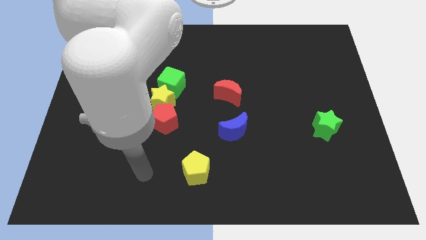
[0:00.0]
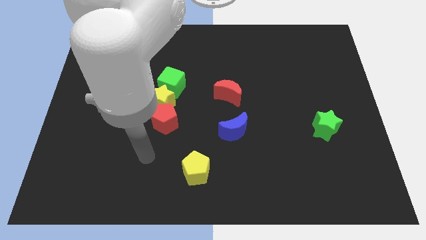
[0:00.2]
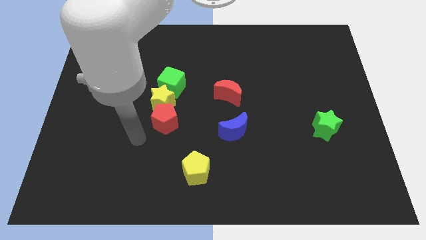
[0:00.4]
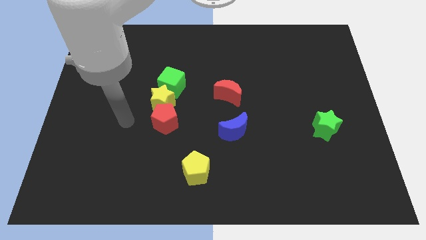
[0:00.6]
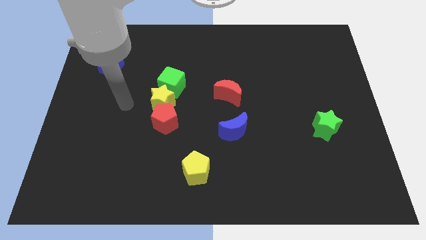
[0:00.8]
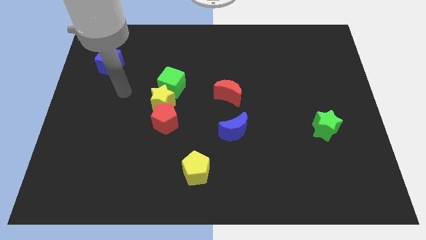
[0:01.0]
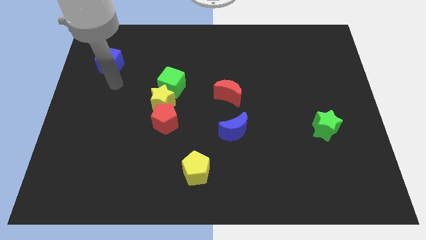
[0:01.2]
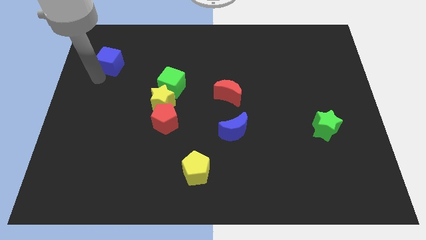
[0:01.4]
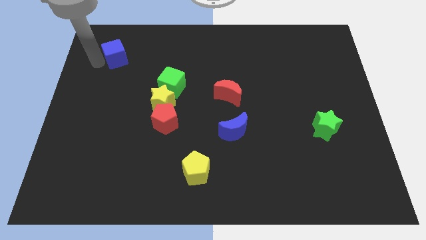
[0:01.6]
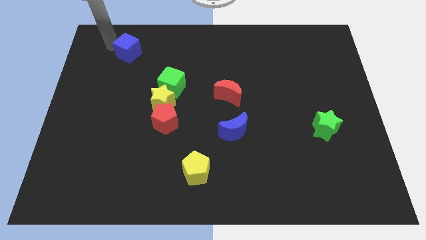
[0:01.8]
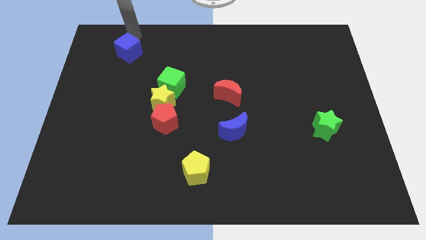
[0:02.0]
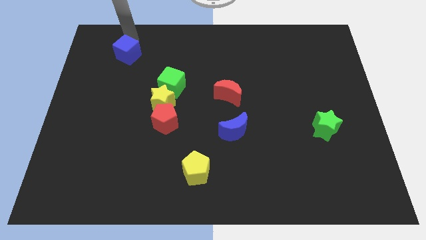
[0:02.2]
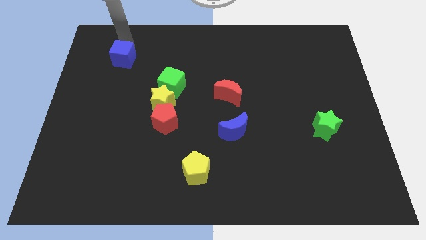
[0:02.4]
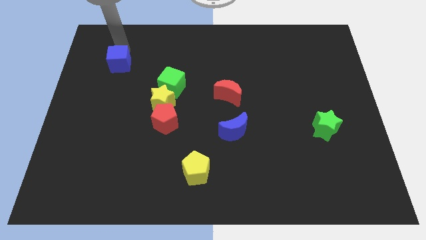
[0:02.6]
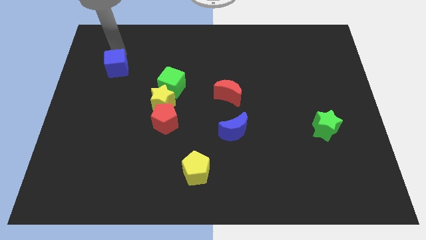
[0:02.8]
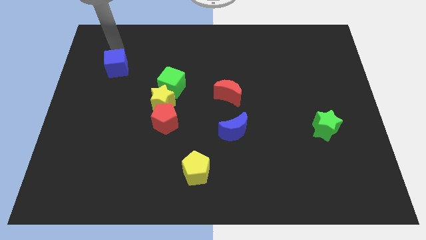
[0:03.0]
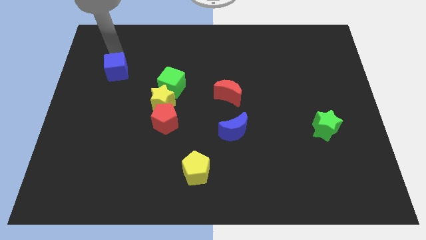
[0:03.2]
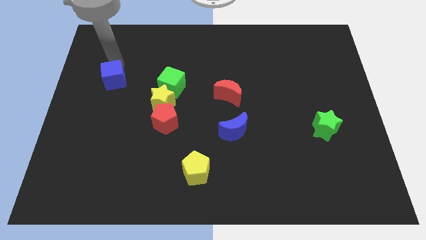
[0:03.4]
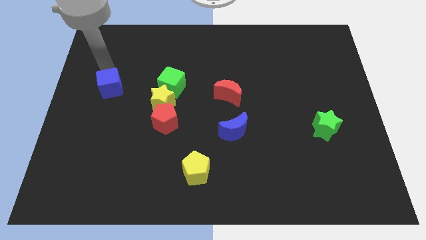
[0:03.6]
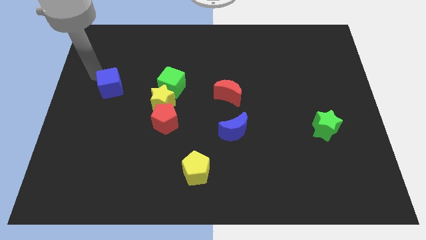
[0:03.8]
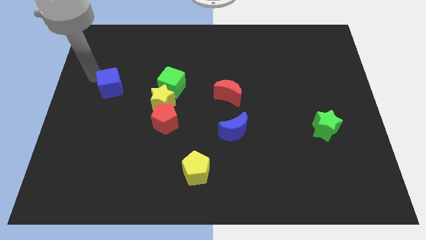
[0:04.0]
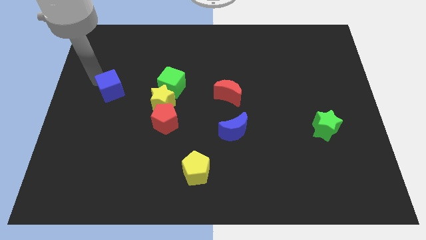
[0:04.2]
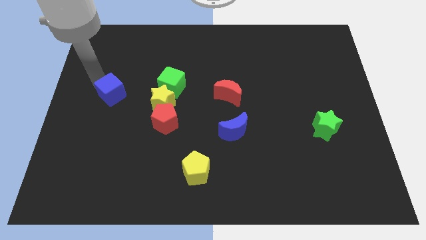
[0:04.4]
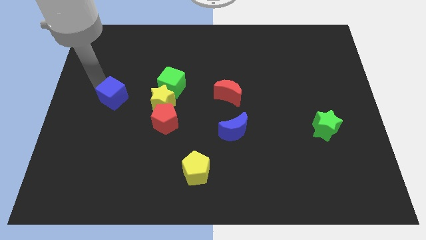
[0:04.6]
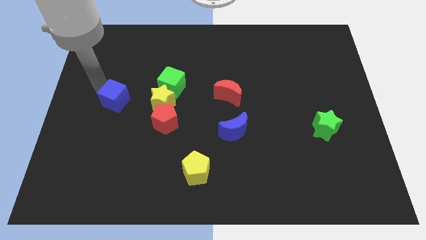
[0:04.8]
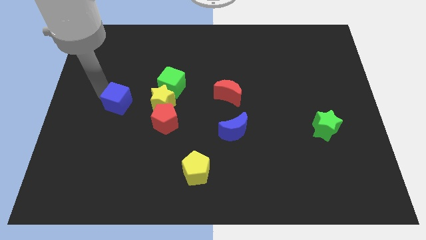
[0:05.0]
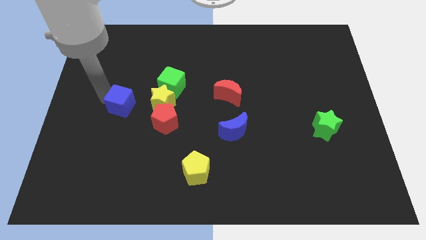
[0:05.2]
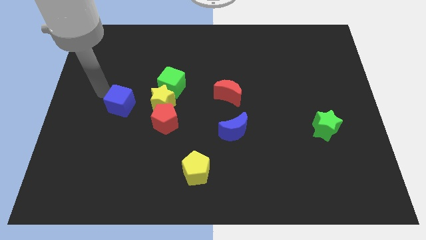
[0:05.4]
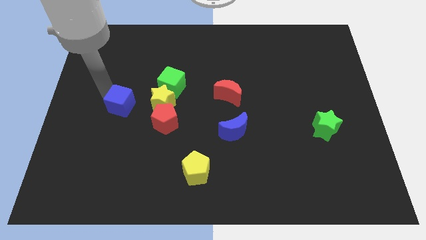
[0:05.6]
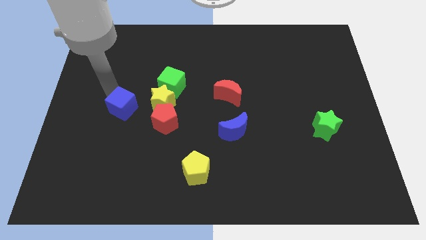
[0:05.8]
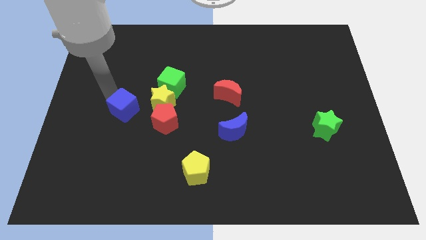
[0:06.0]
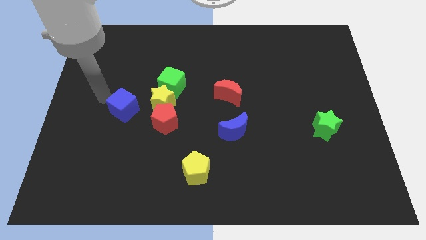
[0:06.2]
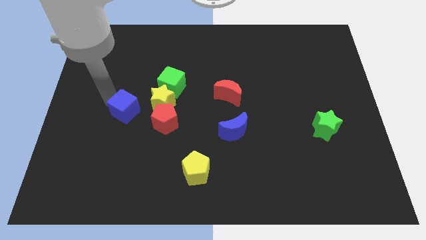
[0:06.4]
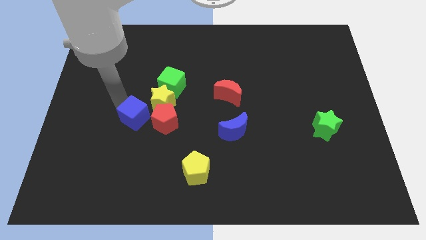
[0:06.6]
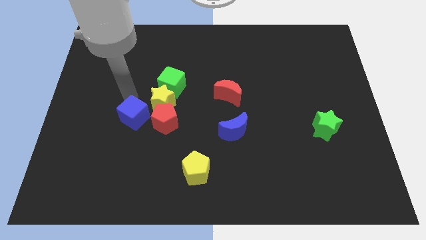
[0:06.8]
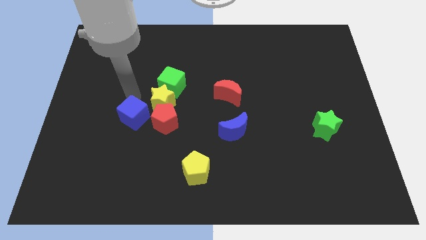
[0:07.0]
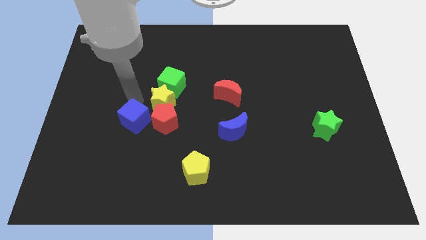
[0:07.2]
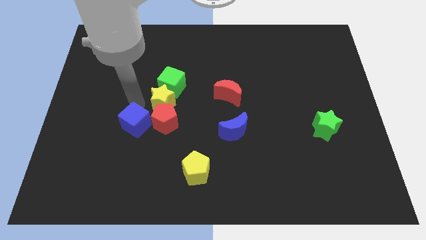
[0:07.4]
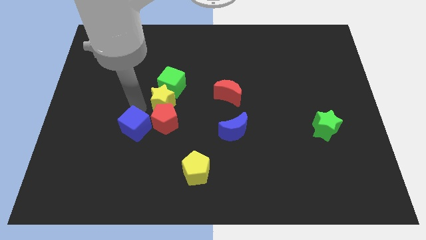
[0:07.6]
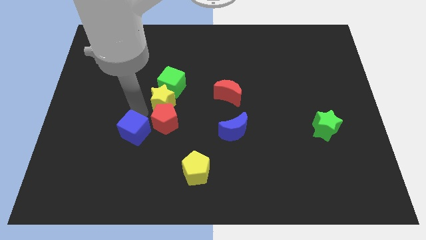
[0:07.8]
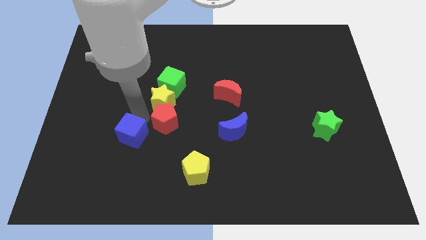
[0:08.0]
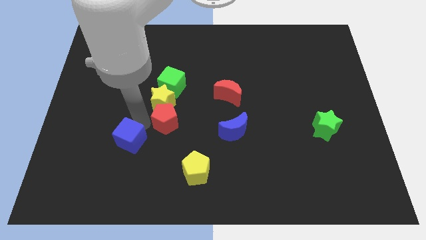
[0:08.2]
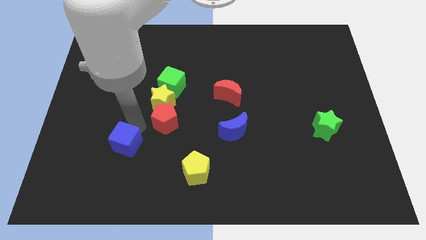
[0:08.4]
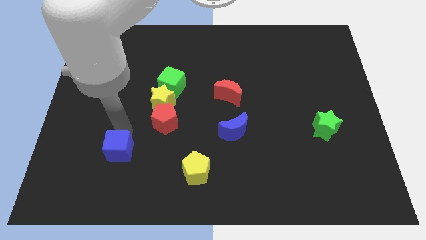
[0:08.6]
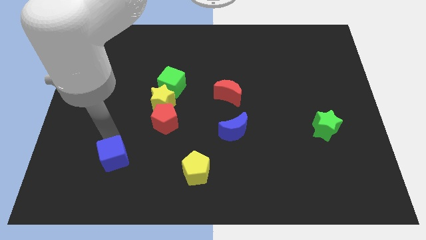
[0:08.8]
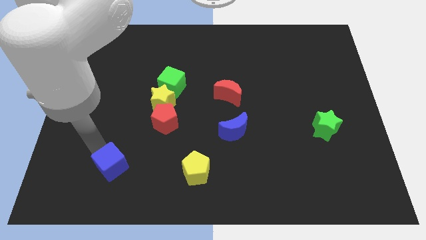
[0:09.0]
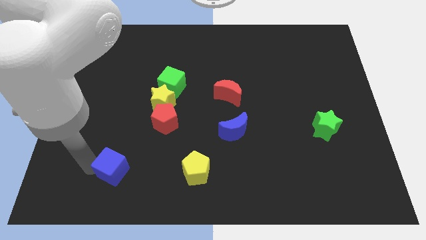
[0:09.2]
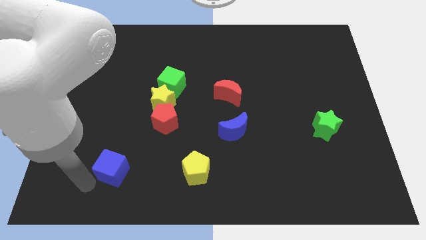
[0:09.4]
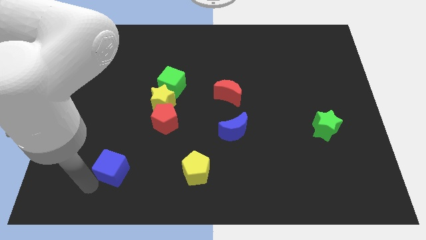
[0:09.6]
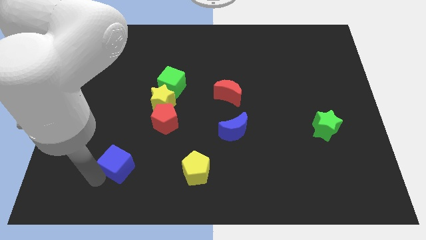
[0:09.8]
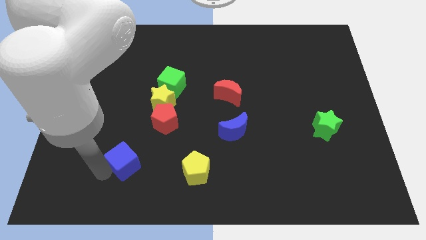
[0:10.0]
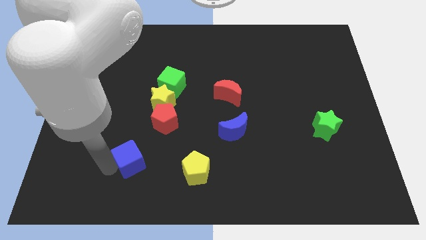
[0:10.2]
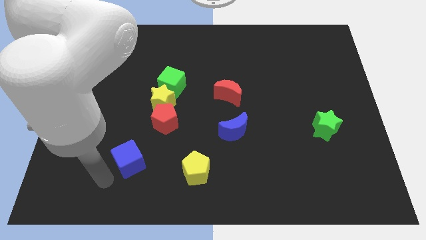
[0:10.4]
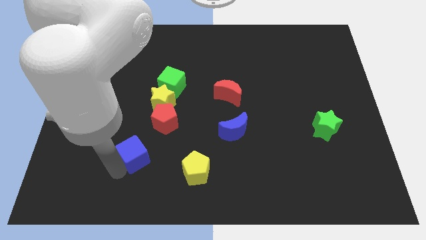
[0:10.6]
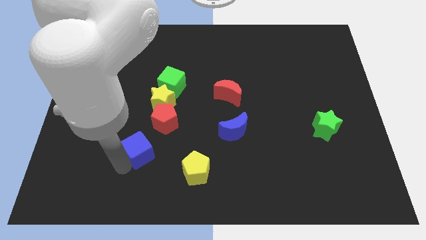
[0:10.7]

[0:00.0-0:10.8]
slide the blue cube down and then to the right

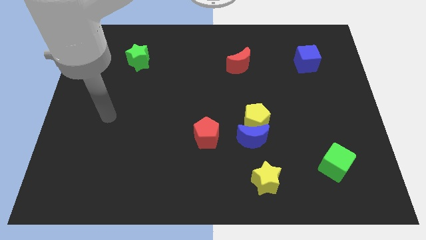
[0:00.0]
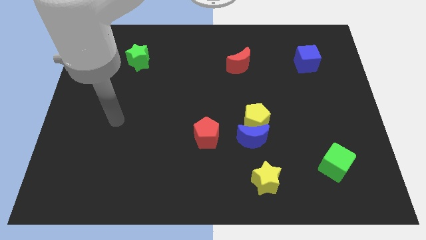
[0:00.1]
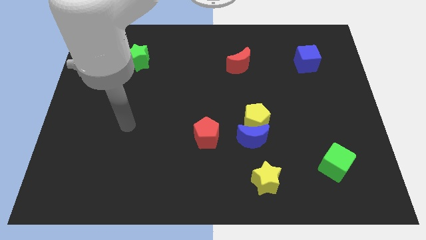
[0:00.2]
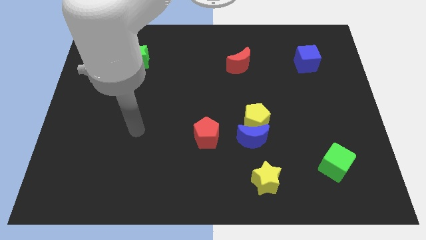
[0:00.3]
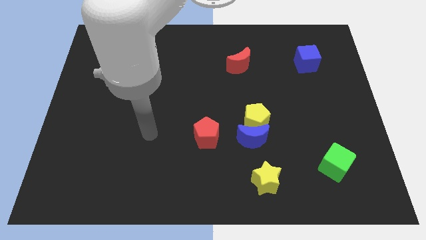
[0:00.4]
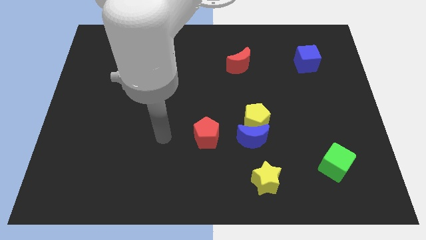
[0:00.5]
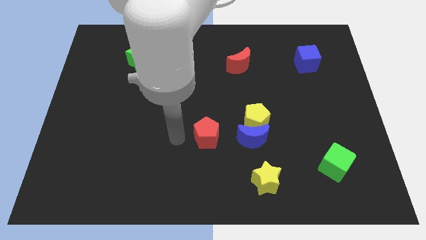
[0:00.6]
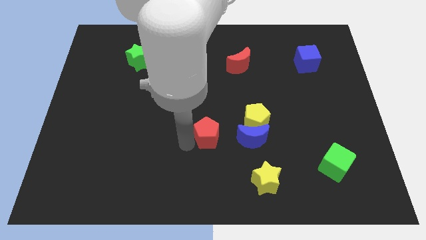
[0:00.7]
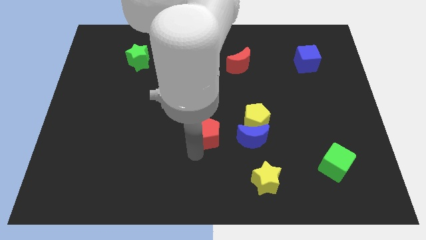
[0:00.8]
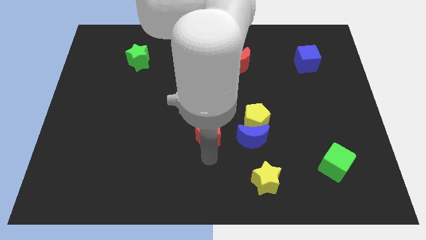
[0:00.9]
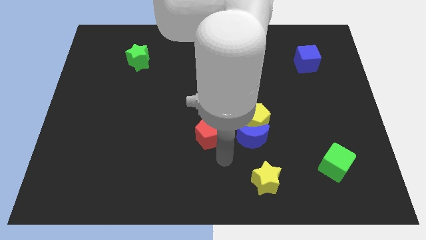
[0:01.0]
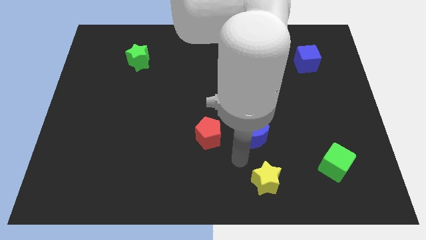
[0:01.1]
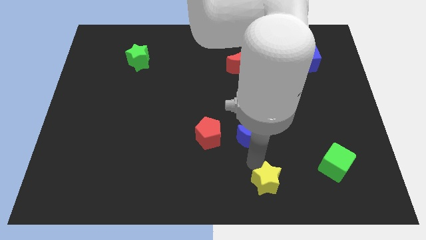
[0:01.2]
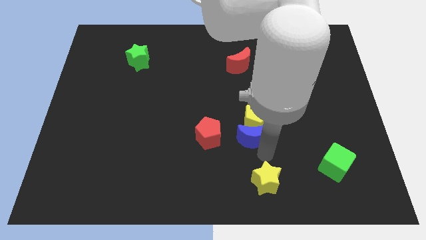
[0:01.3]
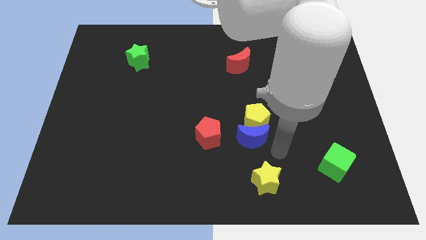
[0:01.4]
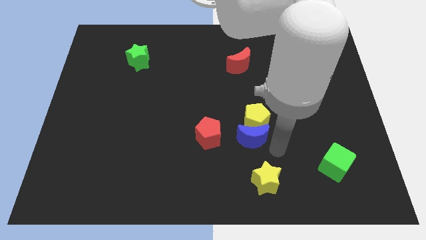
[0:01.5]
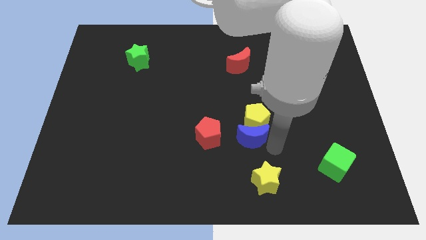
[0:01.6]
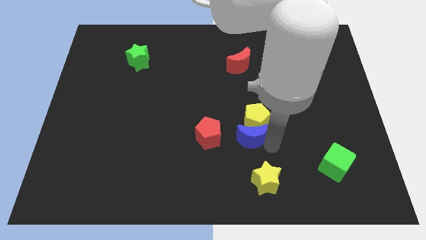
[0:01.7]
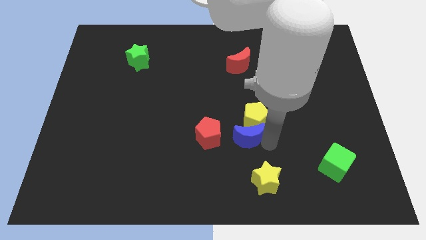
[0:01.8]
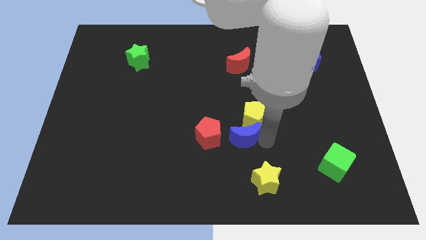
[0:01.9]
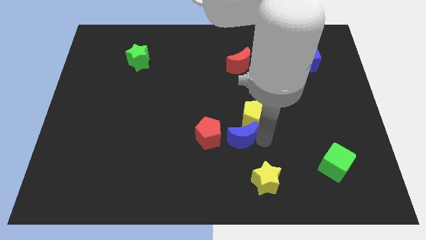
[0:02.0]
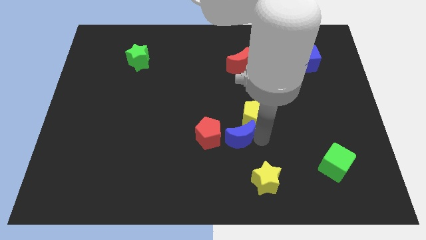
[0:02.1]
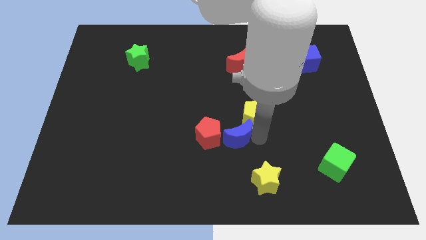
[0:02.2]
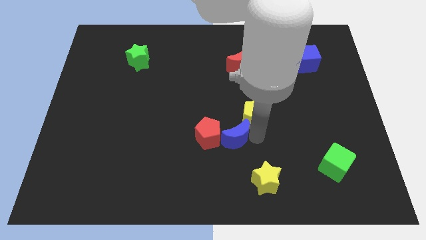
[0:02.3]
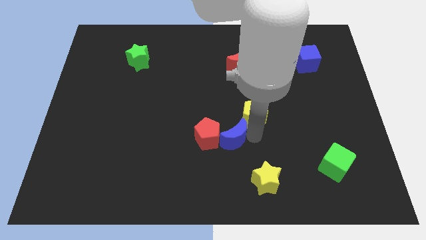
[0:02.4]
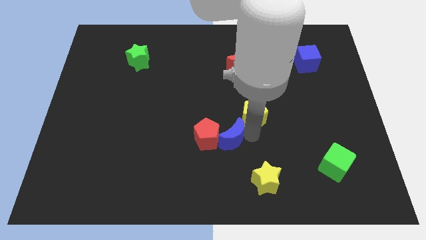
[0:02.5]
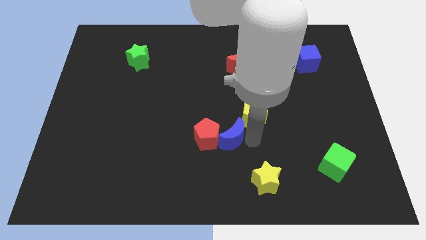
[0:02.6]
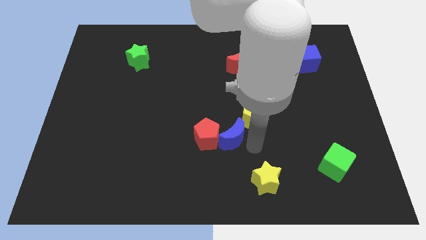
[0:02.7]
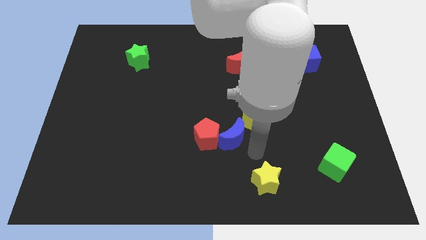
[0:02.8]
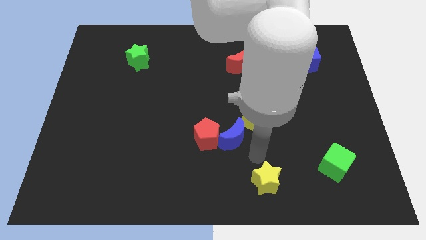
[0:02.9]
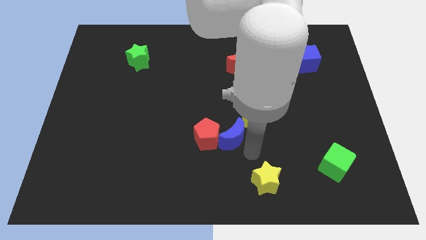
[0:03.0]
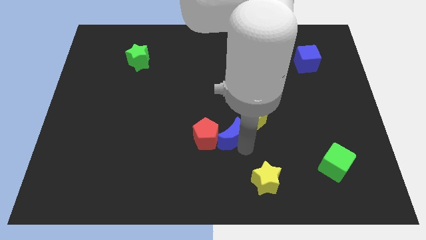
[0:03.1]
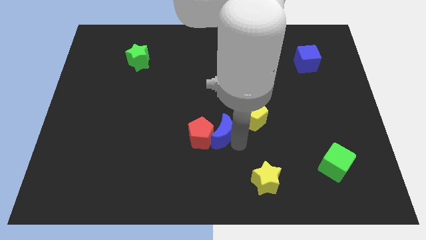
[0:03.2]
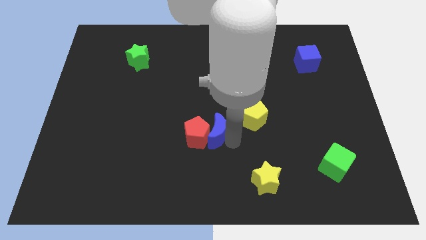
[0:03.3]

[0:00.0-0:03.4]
push the blue moon left slightly
